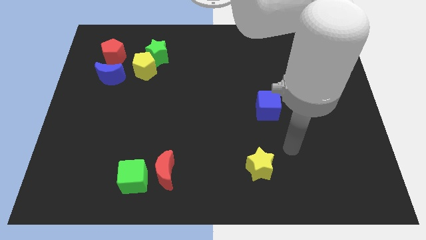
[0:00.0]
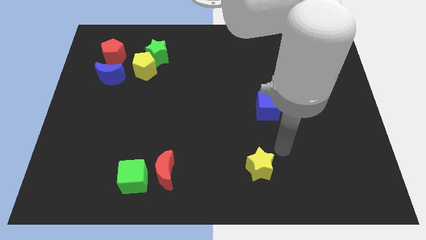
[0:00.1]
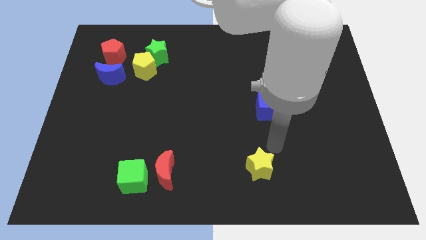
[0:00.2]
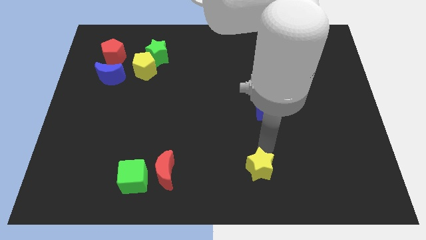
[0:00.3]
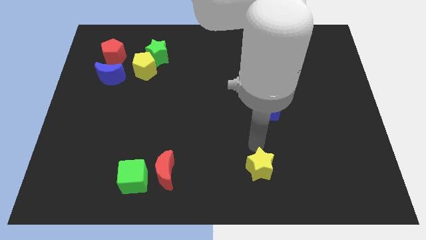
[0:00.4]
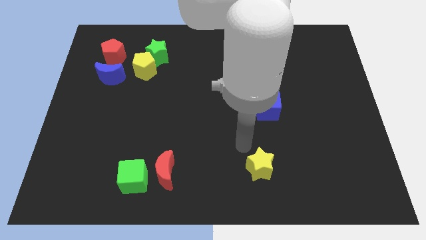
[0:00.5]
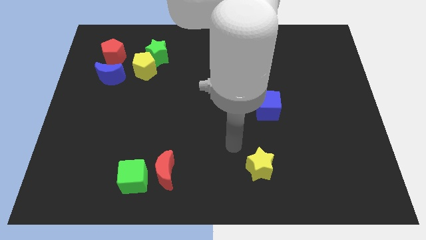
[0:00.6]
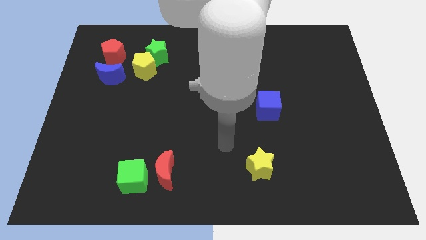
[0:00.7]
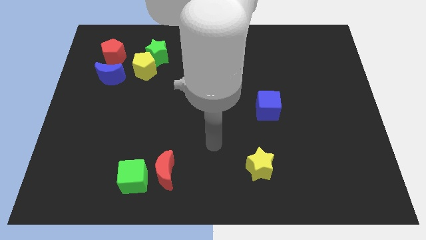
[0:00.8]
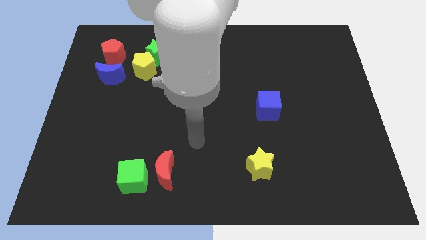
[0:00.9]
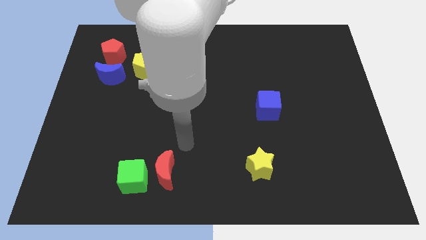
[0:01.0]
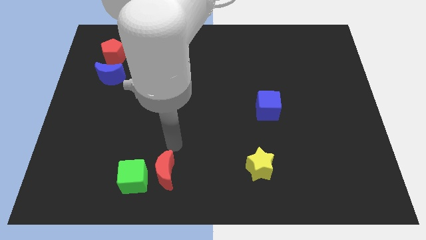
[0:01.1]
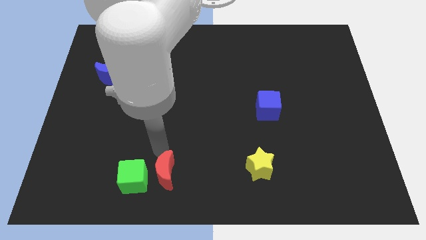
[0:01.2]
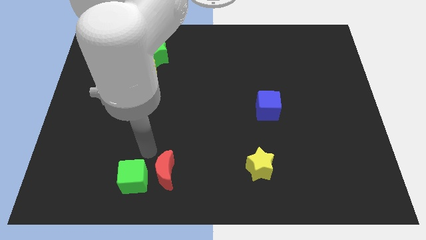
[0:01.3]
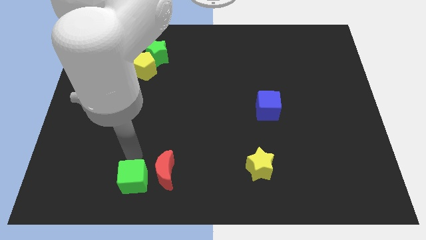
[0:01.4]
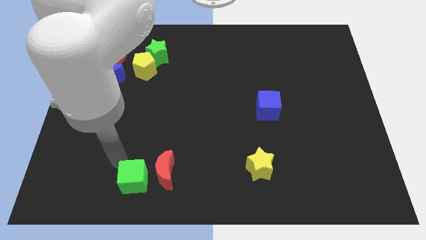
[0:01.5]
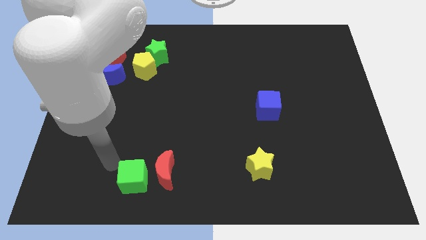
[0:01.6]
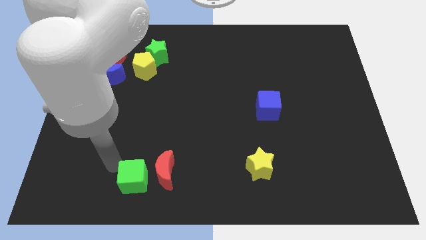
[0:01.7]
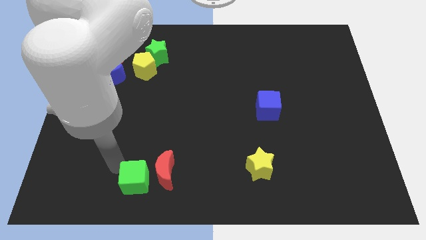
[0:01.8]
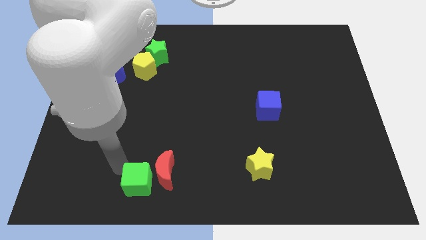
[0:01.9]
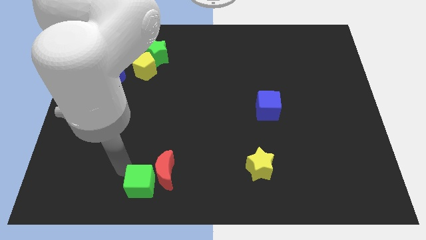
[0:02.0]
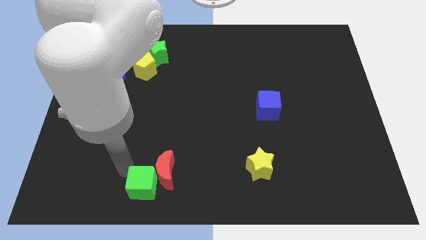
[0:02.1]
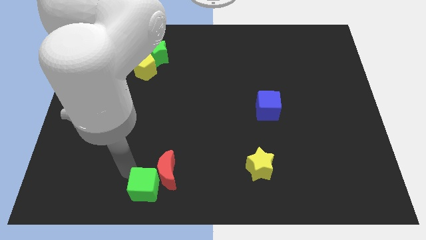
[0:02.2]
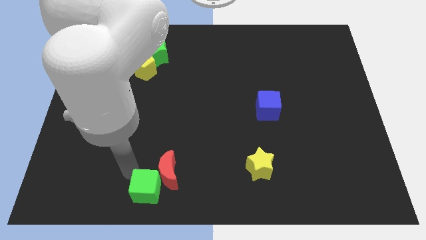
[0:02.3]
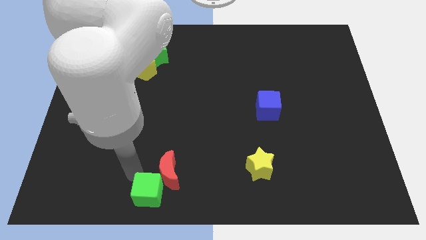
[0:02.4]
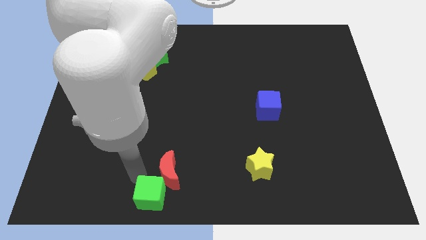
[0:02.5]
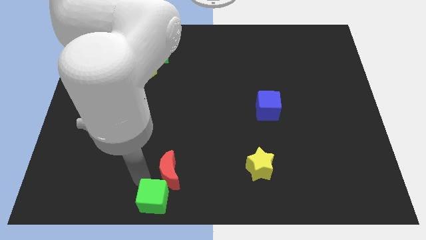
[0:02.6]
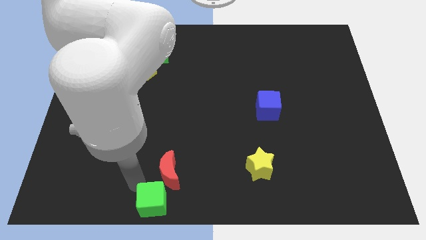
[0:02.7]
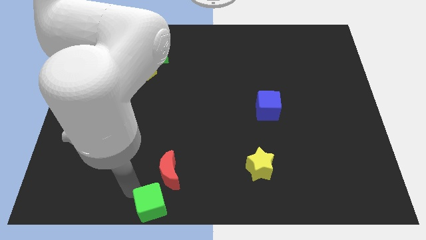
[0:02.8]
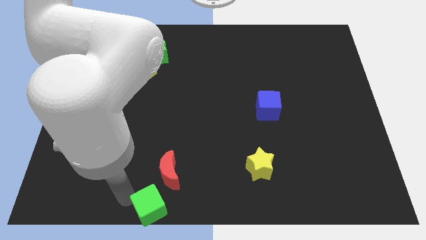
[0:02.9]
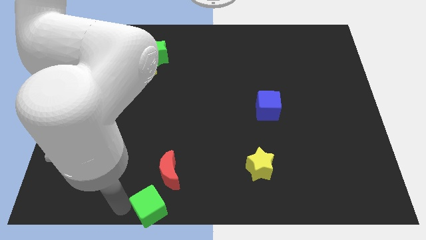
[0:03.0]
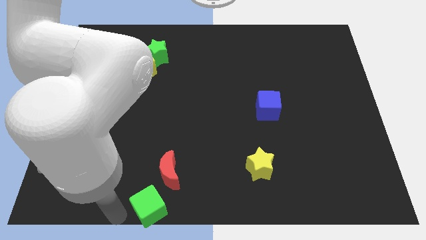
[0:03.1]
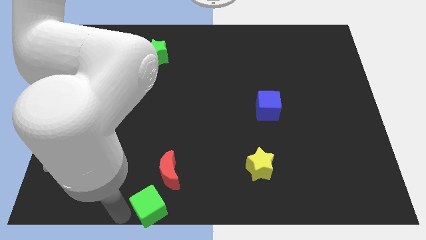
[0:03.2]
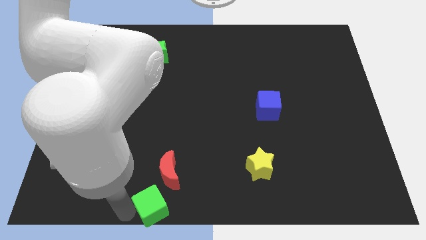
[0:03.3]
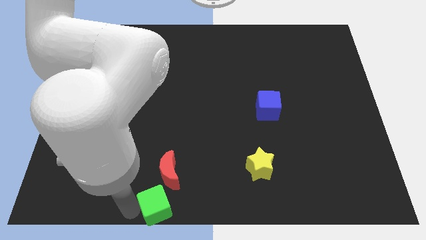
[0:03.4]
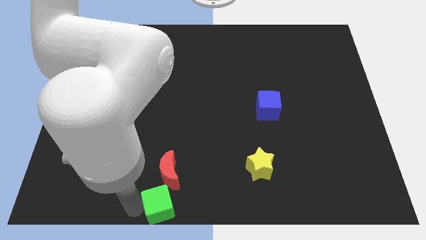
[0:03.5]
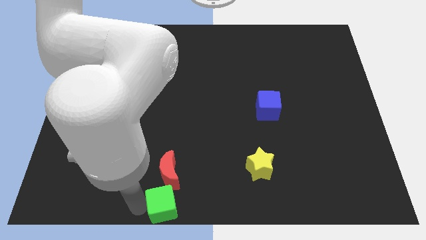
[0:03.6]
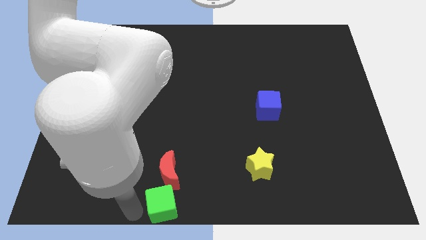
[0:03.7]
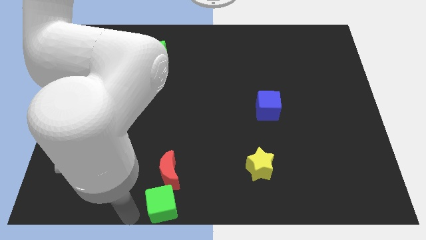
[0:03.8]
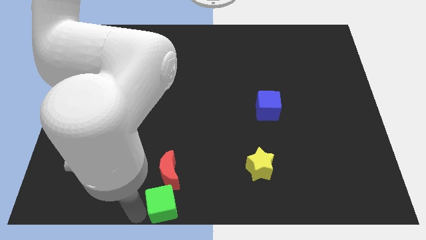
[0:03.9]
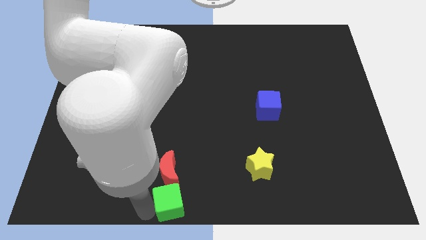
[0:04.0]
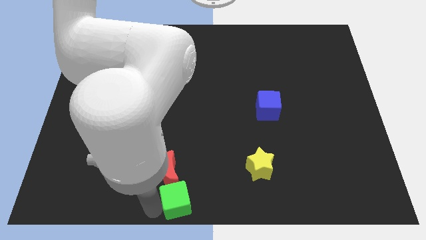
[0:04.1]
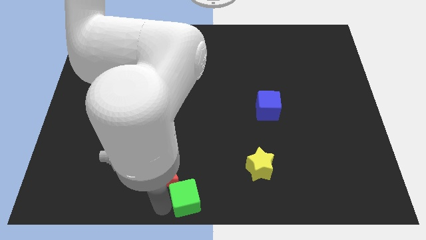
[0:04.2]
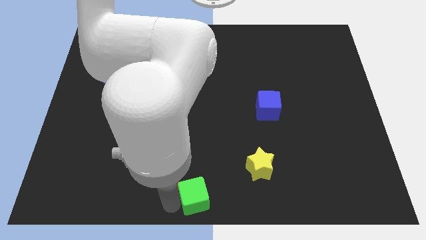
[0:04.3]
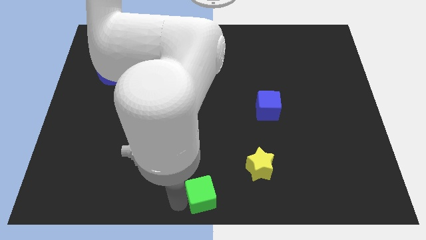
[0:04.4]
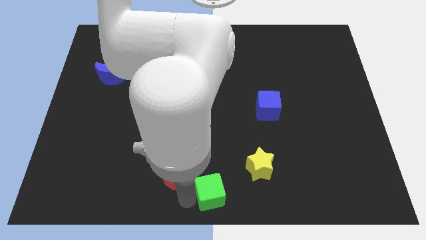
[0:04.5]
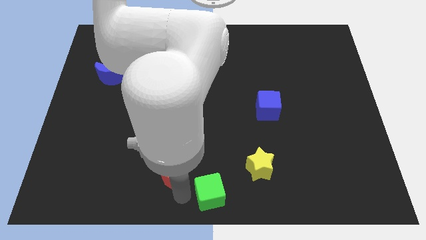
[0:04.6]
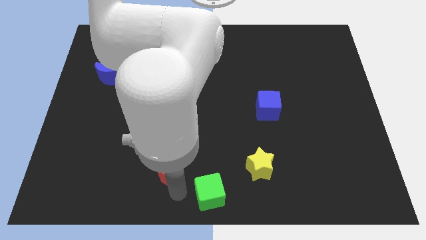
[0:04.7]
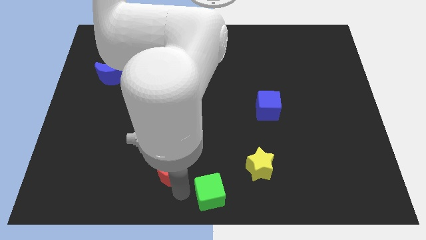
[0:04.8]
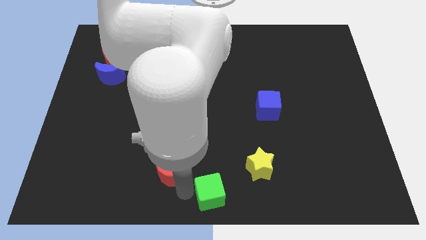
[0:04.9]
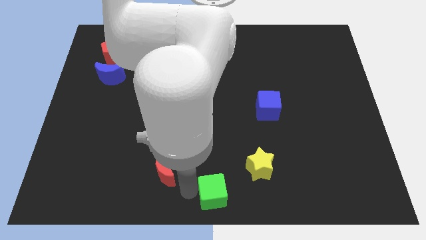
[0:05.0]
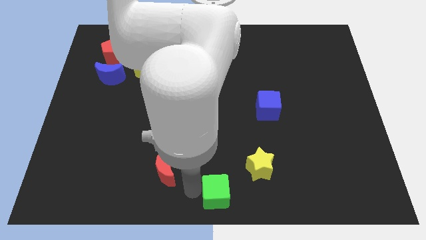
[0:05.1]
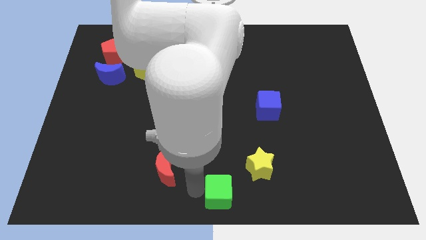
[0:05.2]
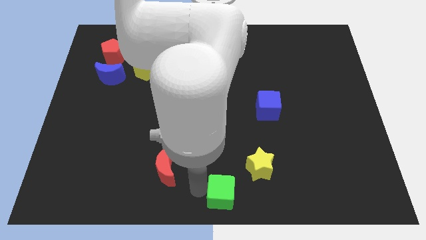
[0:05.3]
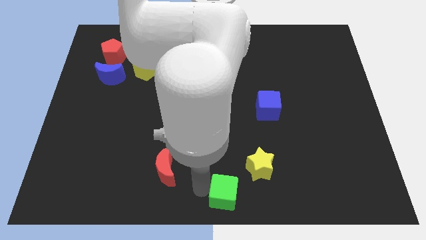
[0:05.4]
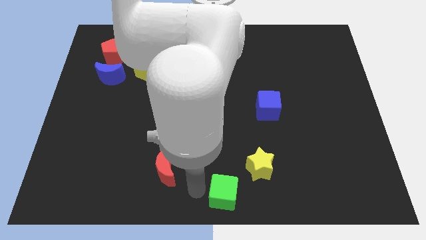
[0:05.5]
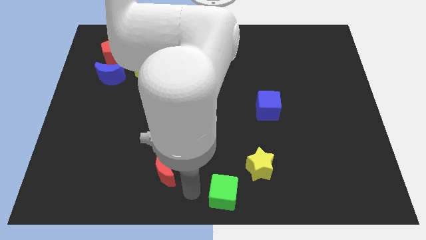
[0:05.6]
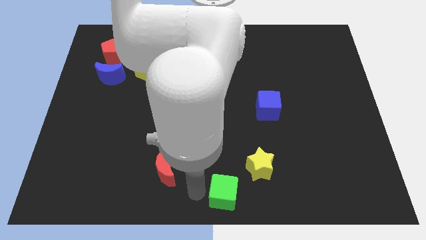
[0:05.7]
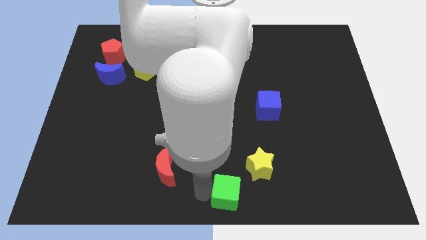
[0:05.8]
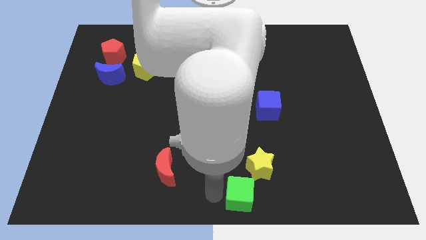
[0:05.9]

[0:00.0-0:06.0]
push the green cube right

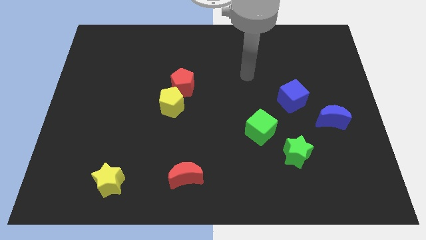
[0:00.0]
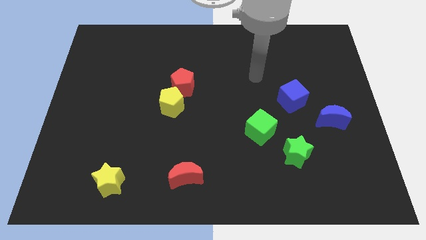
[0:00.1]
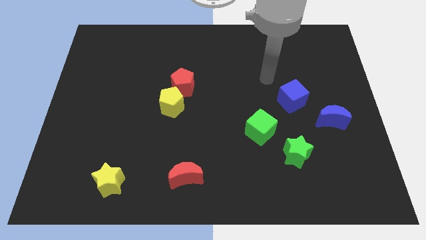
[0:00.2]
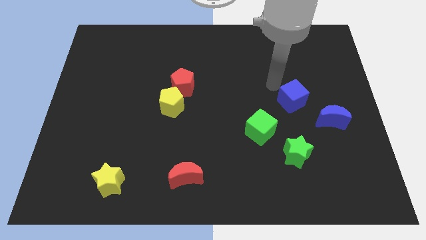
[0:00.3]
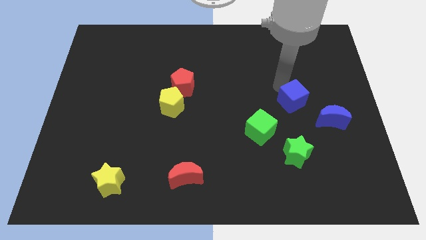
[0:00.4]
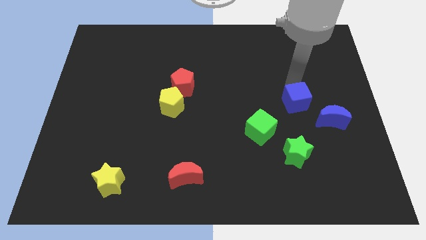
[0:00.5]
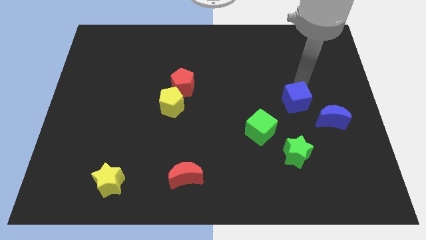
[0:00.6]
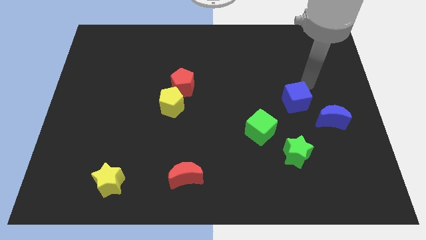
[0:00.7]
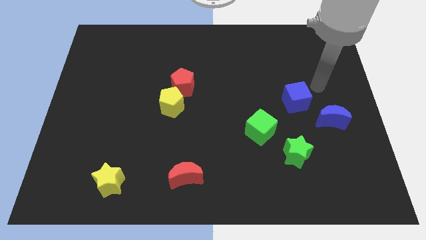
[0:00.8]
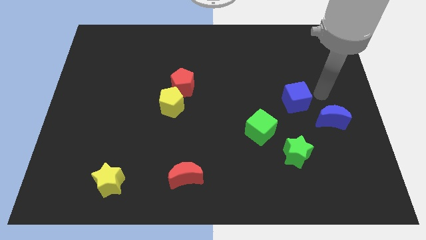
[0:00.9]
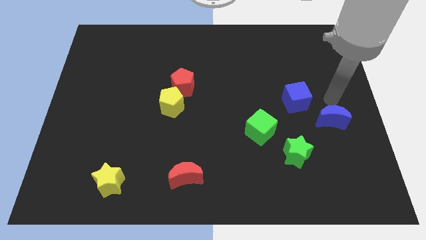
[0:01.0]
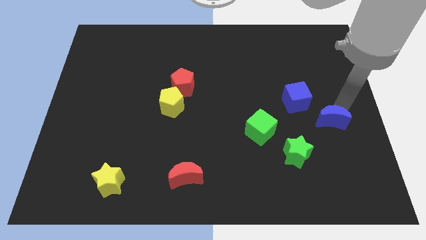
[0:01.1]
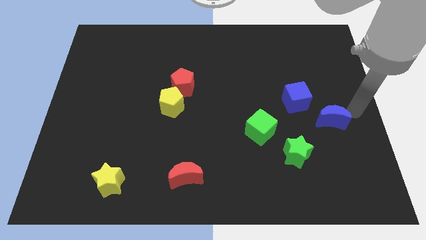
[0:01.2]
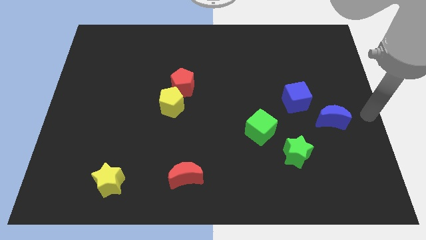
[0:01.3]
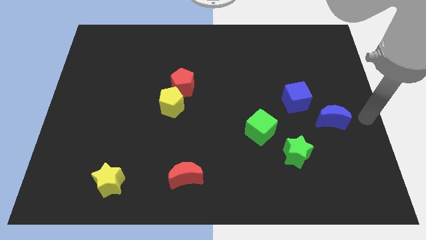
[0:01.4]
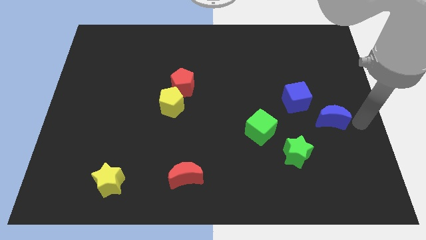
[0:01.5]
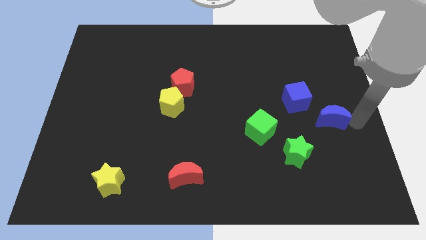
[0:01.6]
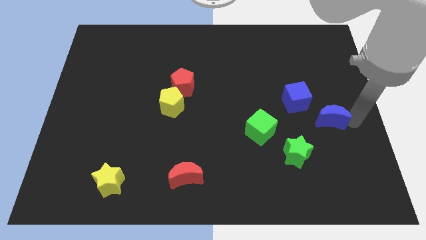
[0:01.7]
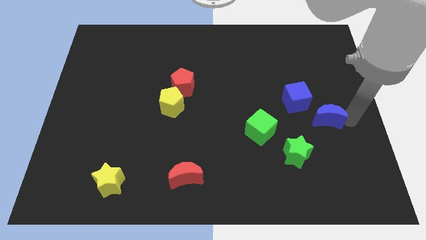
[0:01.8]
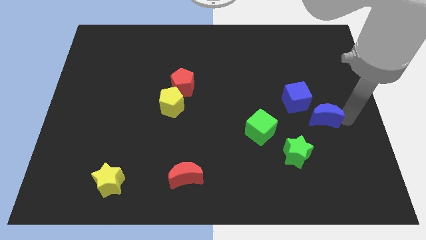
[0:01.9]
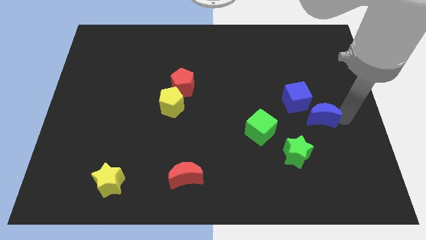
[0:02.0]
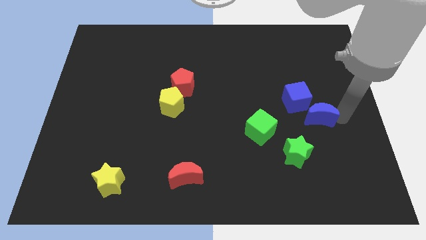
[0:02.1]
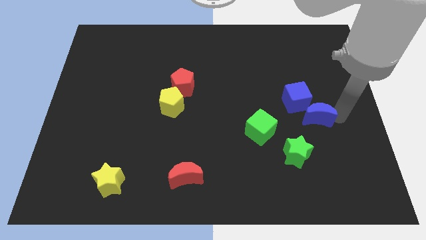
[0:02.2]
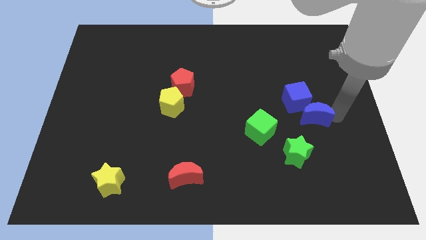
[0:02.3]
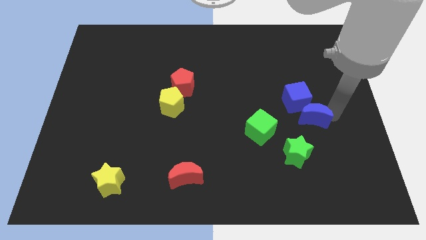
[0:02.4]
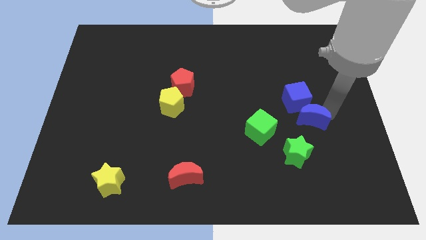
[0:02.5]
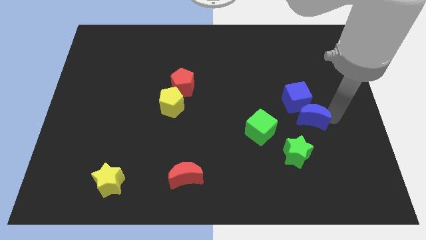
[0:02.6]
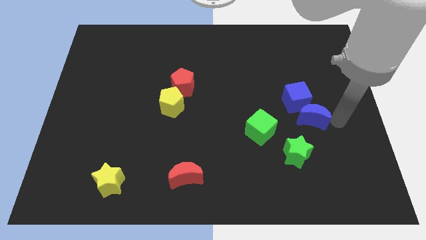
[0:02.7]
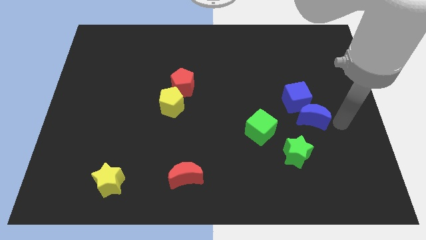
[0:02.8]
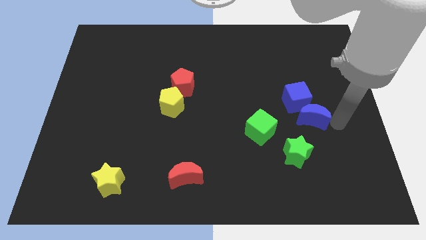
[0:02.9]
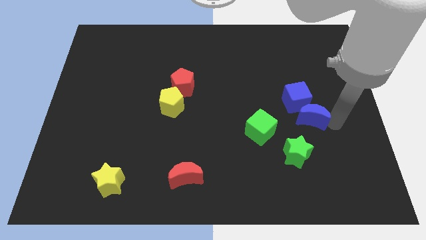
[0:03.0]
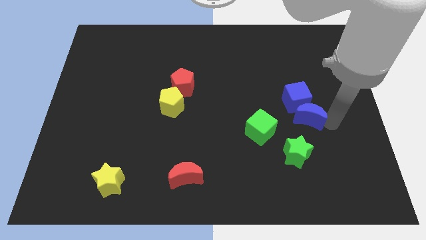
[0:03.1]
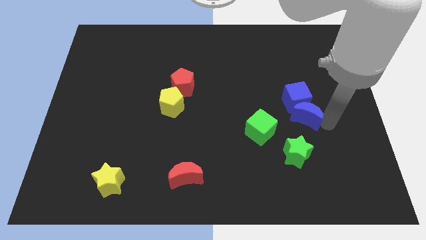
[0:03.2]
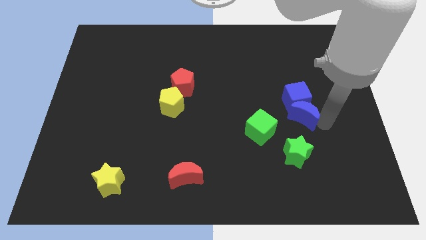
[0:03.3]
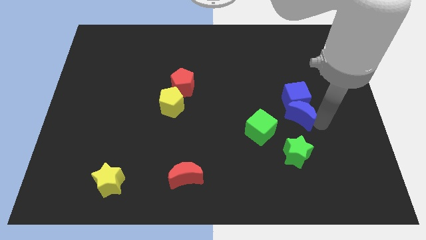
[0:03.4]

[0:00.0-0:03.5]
slightly move the blue moon to the left
